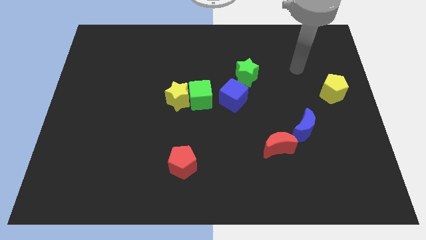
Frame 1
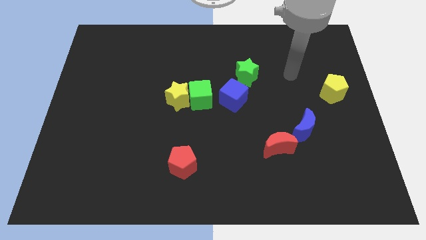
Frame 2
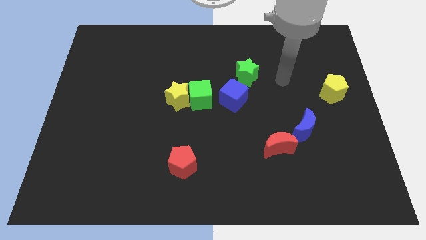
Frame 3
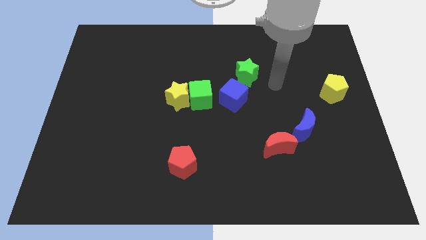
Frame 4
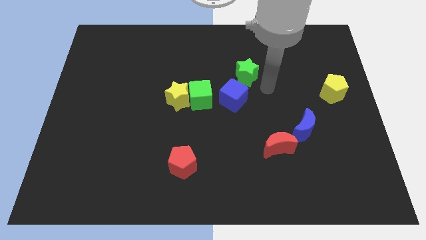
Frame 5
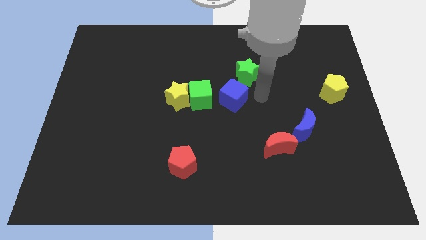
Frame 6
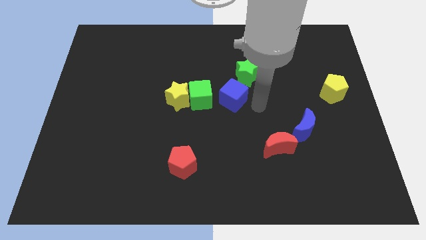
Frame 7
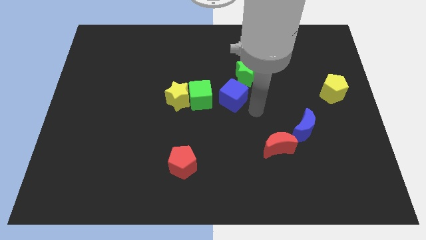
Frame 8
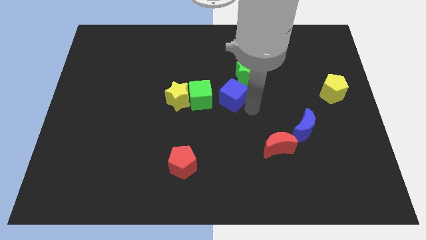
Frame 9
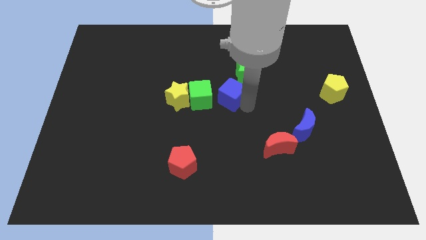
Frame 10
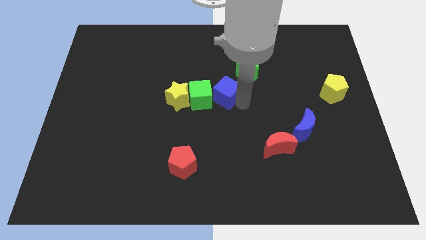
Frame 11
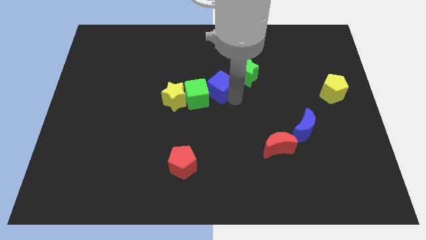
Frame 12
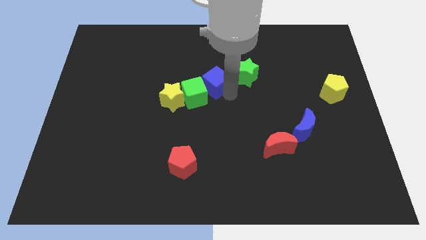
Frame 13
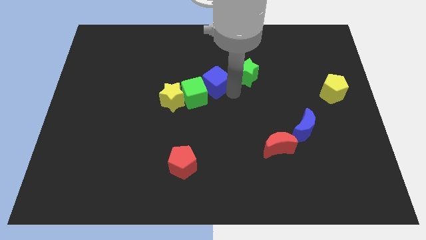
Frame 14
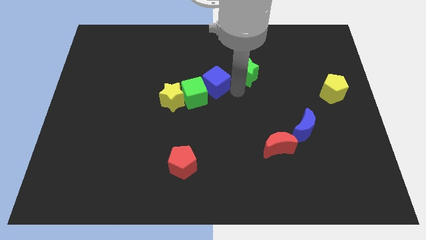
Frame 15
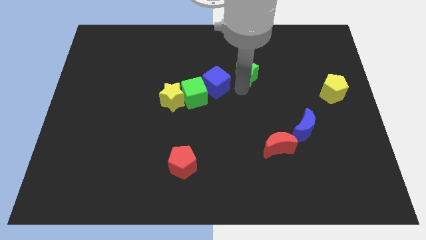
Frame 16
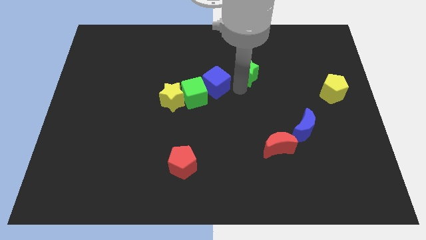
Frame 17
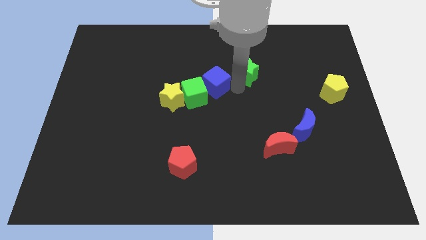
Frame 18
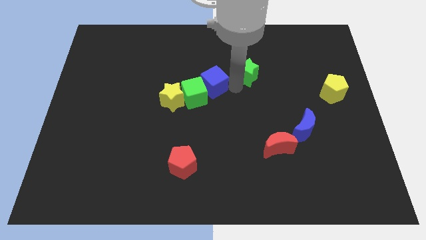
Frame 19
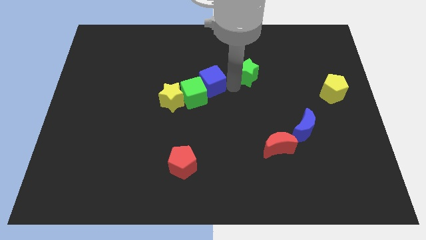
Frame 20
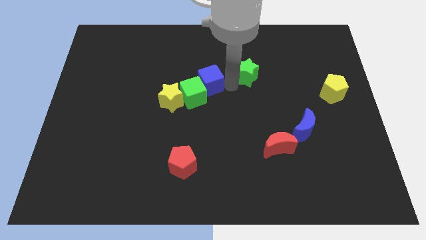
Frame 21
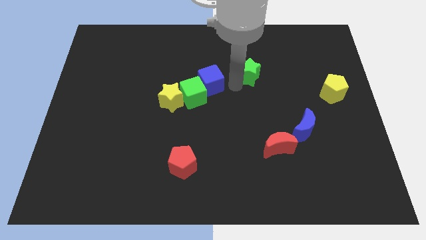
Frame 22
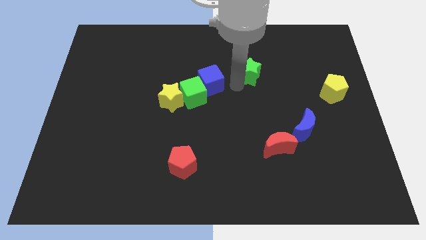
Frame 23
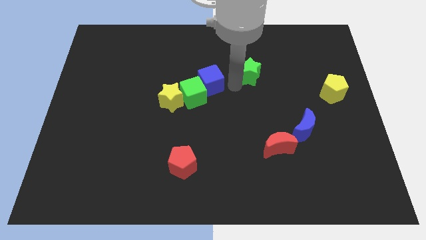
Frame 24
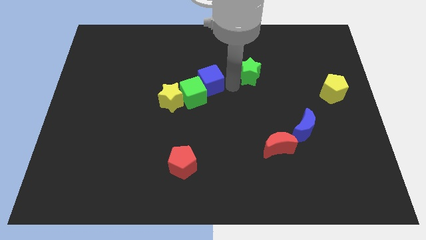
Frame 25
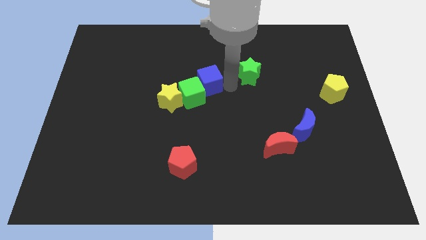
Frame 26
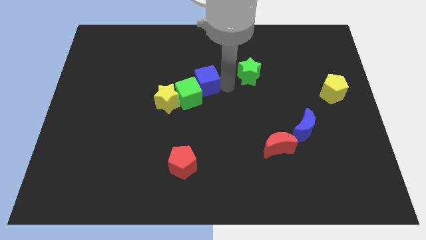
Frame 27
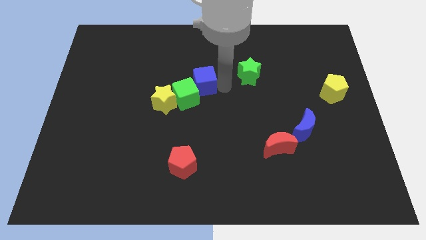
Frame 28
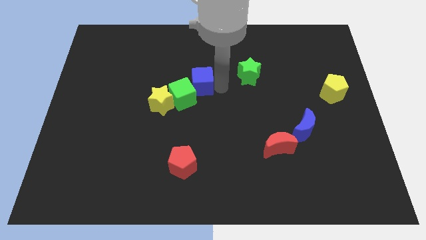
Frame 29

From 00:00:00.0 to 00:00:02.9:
slide the blue cube to the left a little bit

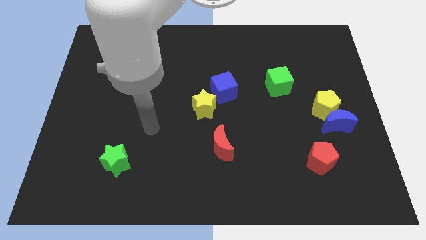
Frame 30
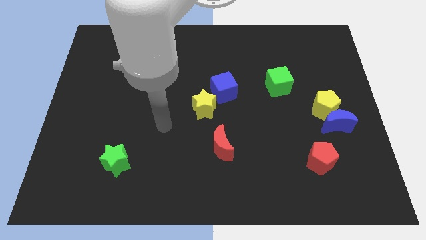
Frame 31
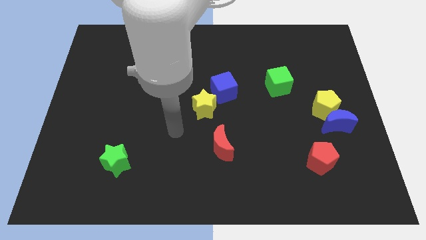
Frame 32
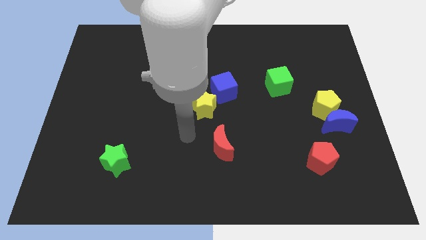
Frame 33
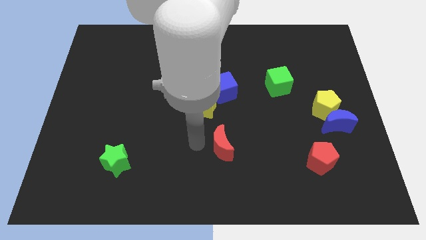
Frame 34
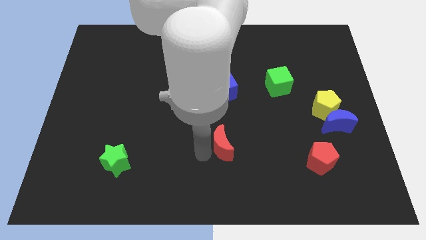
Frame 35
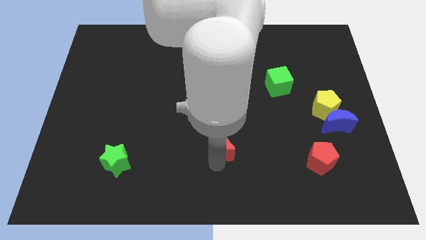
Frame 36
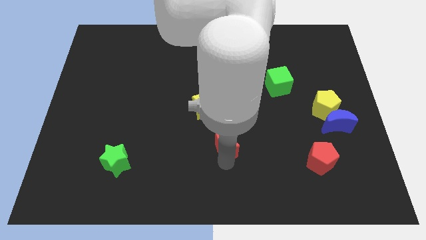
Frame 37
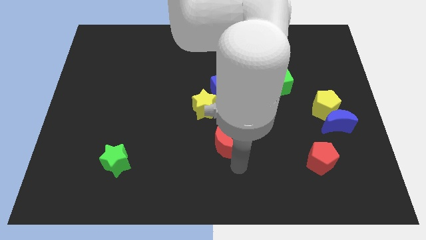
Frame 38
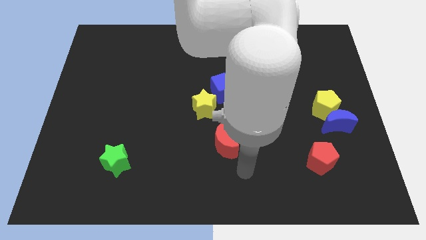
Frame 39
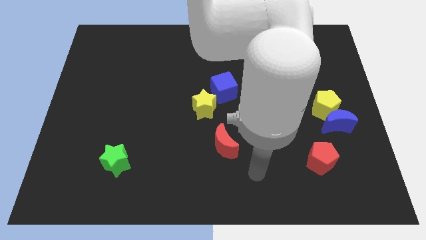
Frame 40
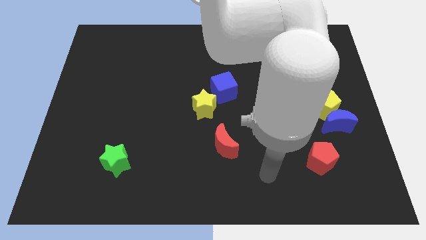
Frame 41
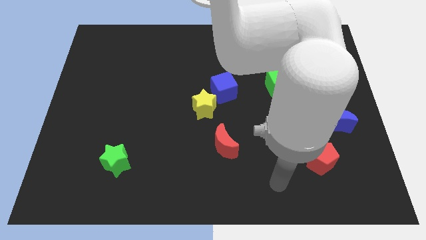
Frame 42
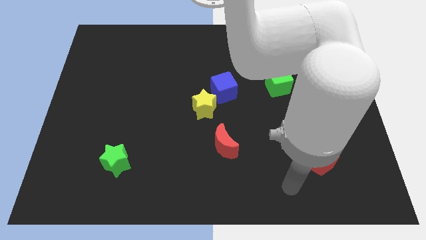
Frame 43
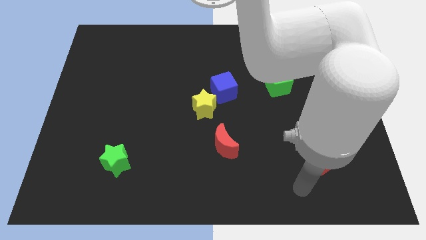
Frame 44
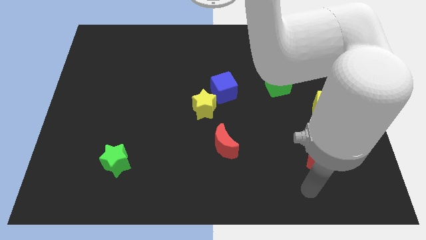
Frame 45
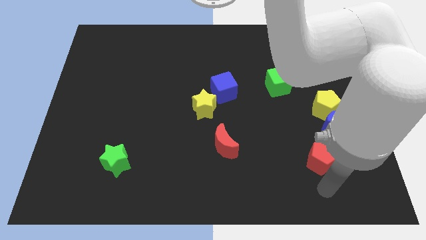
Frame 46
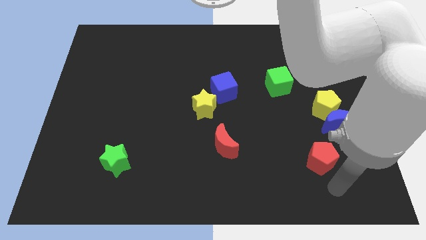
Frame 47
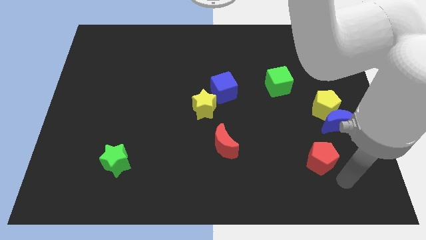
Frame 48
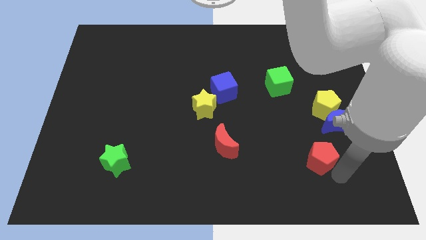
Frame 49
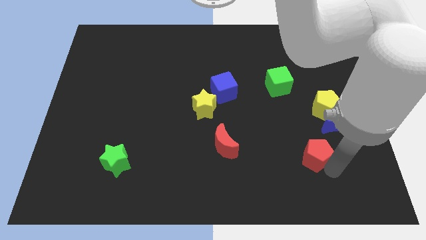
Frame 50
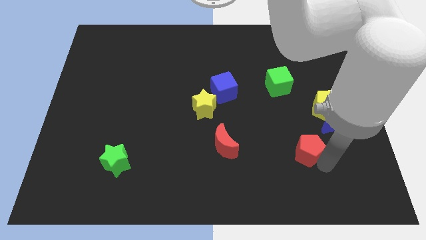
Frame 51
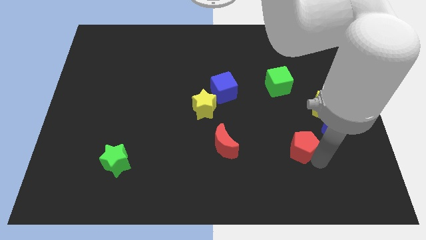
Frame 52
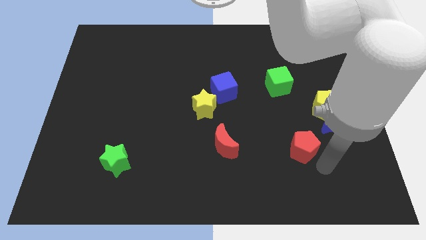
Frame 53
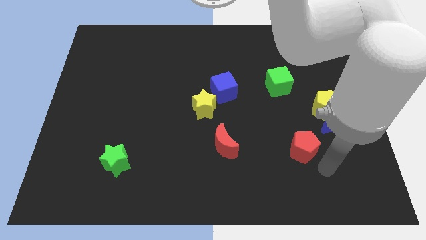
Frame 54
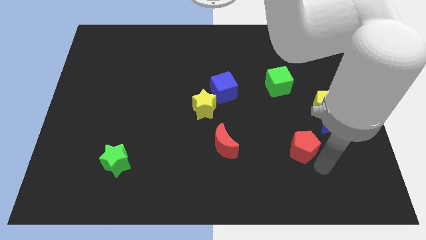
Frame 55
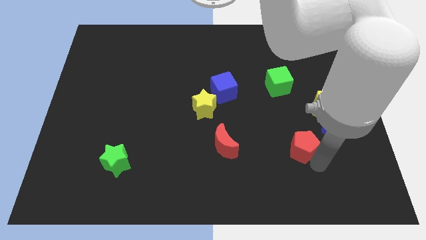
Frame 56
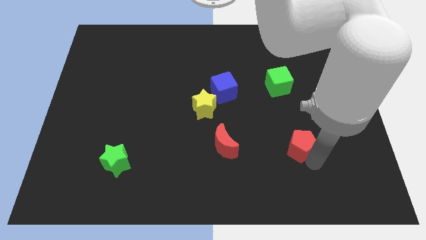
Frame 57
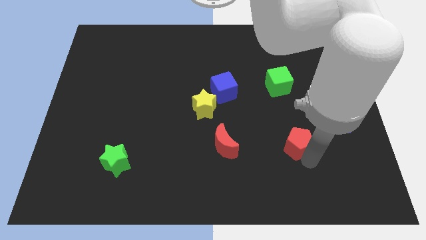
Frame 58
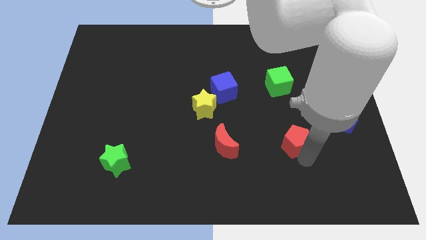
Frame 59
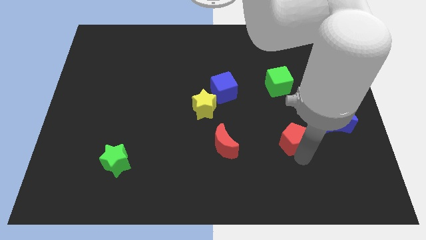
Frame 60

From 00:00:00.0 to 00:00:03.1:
slide the red pentagon upwards and left diagonally slightly

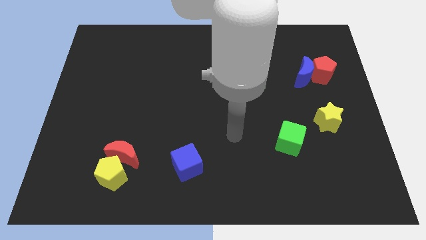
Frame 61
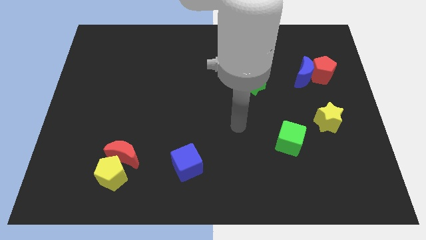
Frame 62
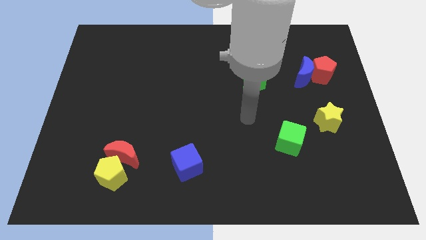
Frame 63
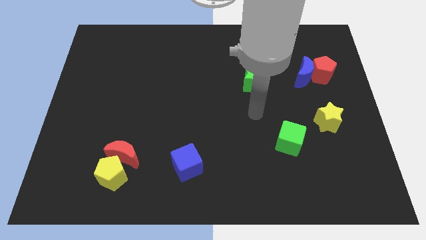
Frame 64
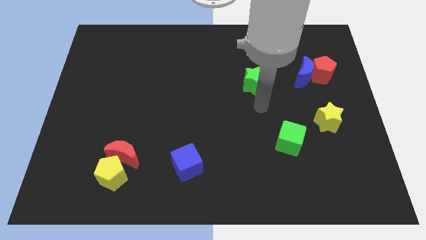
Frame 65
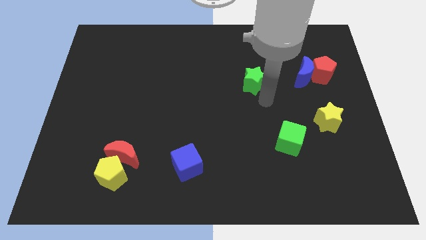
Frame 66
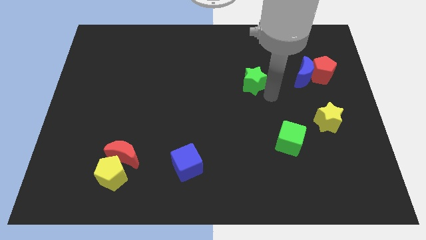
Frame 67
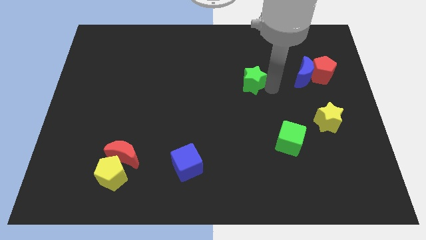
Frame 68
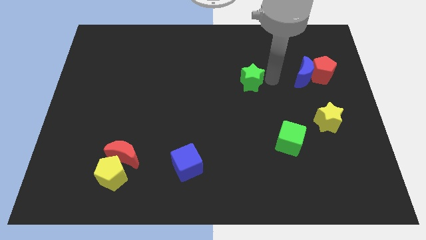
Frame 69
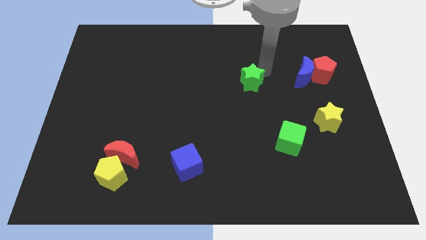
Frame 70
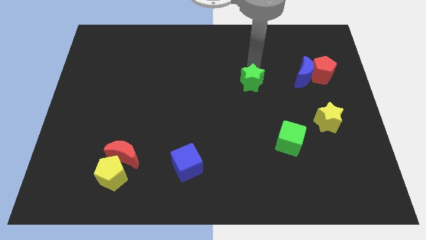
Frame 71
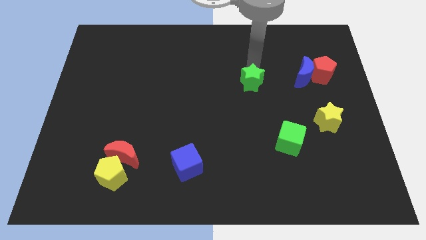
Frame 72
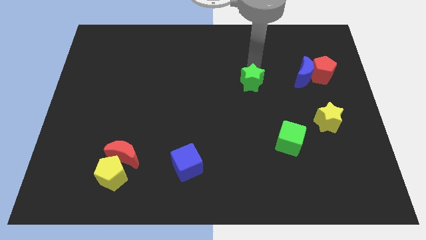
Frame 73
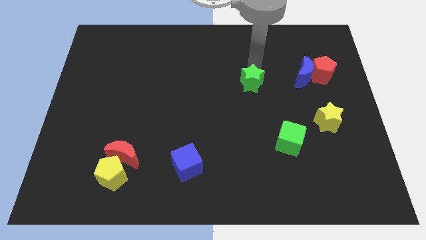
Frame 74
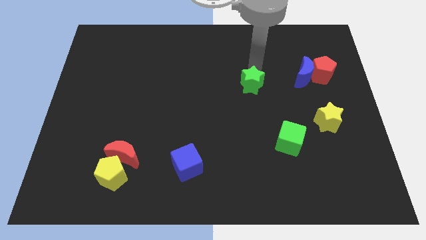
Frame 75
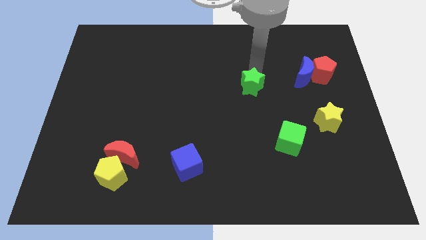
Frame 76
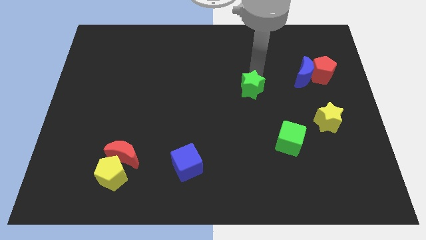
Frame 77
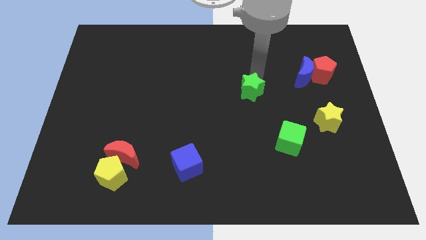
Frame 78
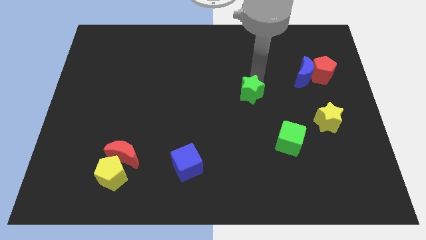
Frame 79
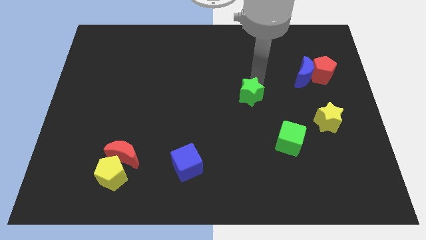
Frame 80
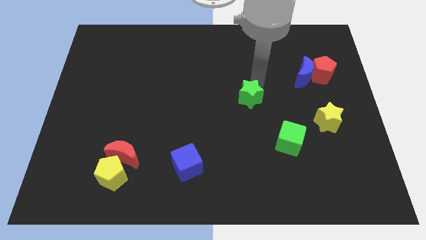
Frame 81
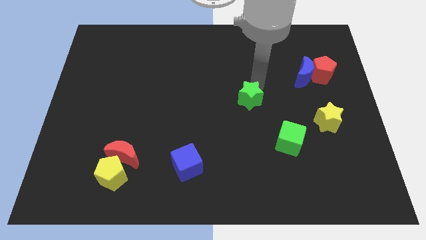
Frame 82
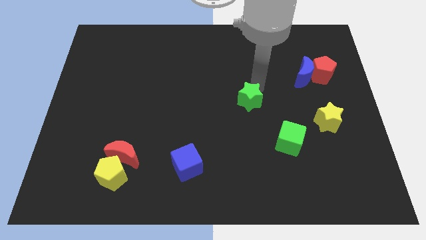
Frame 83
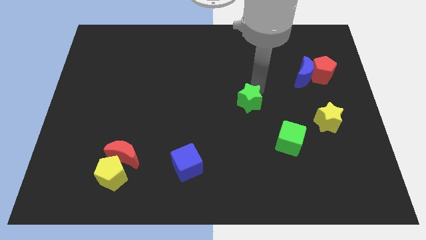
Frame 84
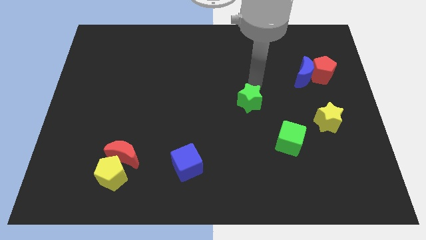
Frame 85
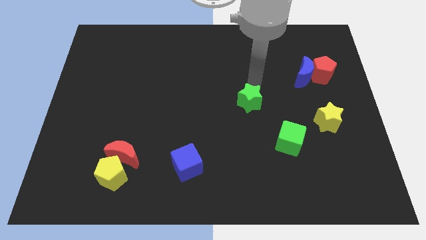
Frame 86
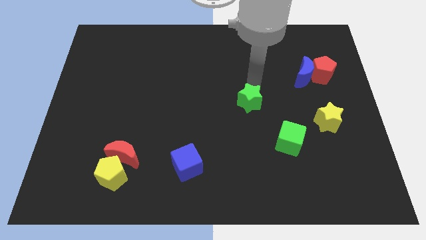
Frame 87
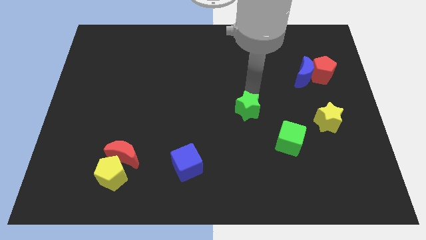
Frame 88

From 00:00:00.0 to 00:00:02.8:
slightly push the green star down
